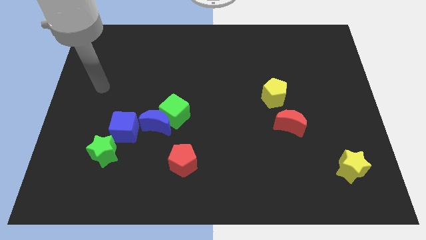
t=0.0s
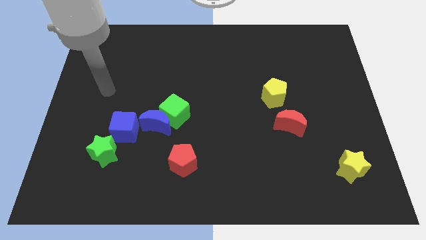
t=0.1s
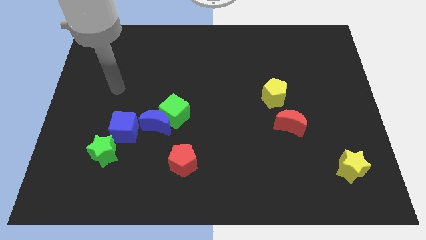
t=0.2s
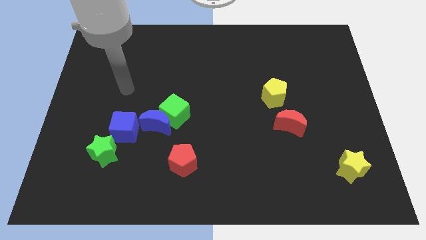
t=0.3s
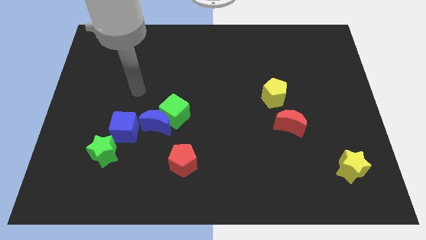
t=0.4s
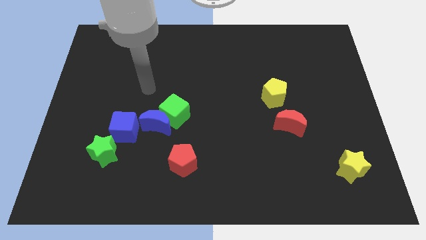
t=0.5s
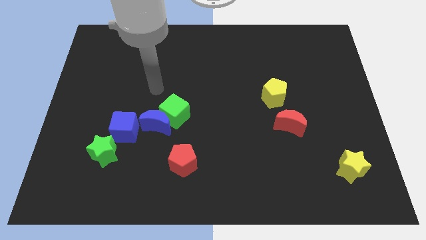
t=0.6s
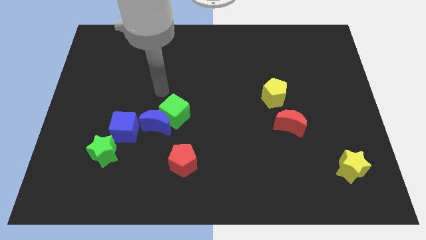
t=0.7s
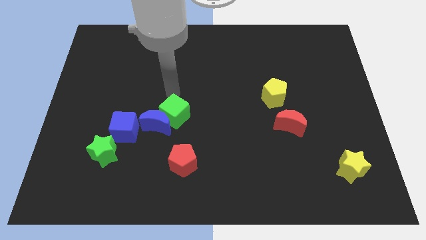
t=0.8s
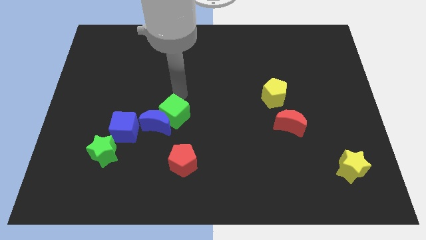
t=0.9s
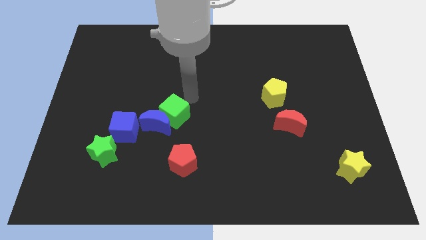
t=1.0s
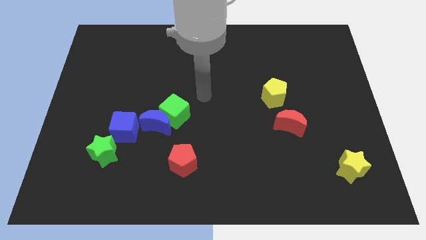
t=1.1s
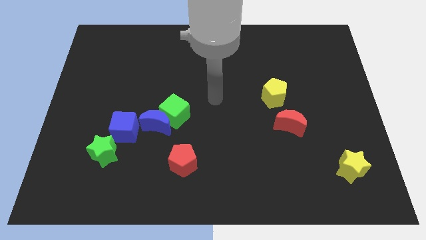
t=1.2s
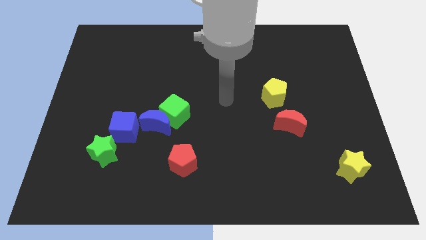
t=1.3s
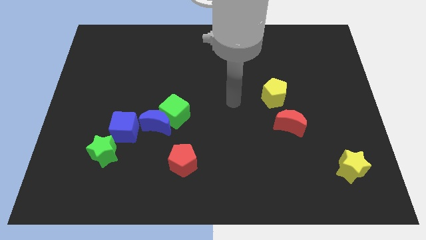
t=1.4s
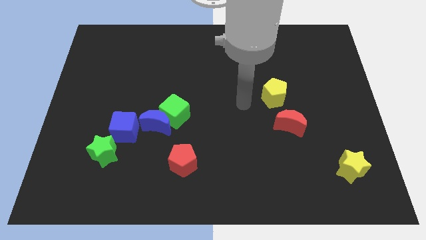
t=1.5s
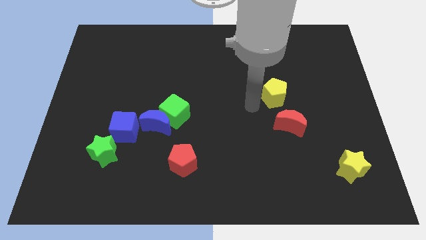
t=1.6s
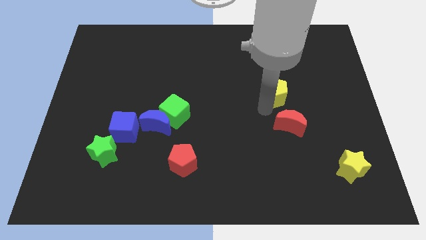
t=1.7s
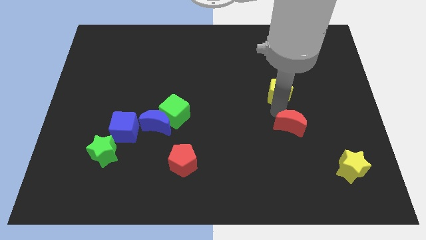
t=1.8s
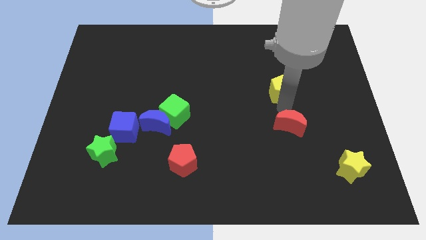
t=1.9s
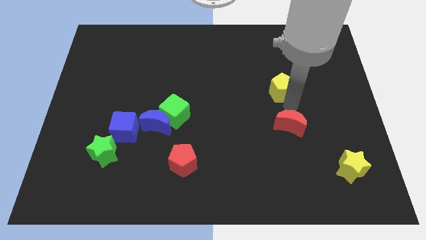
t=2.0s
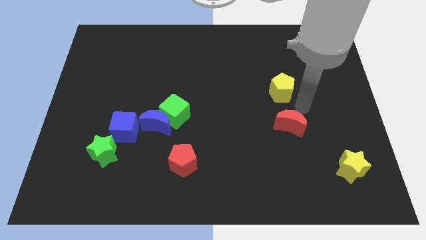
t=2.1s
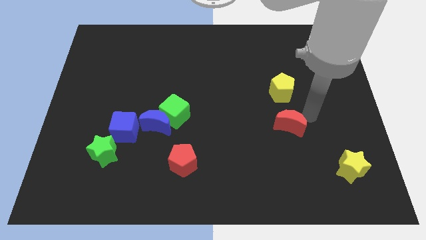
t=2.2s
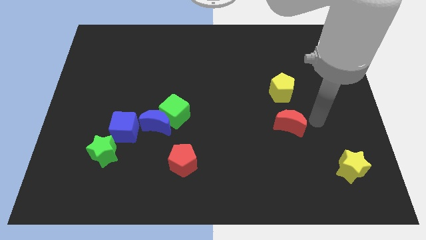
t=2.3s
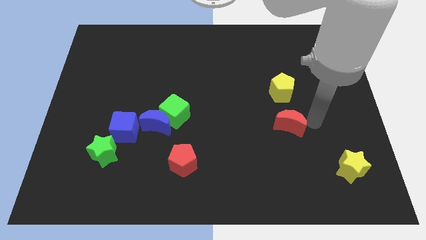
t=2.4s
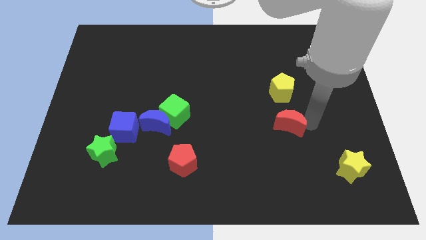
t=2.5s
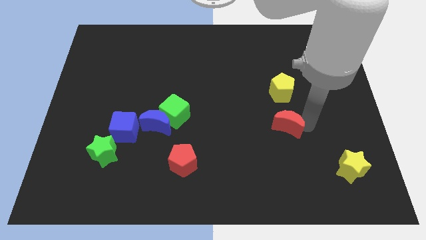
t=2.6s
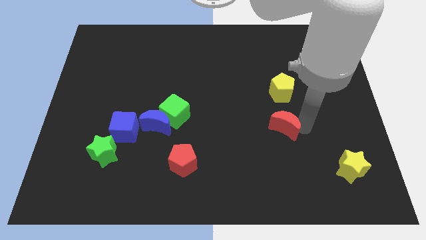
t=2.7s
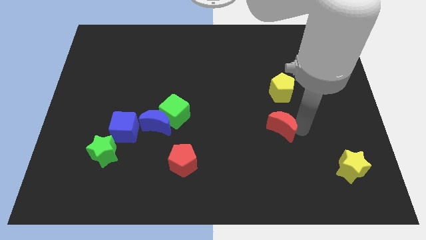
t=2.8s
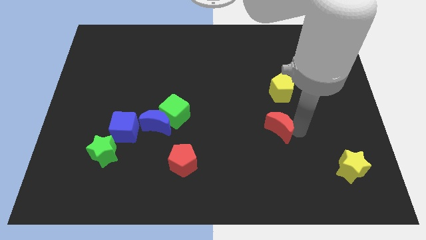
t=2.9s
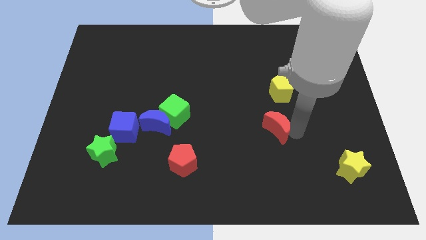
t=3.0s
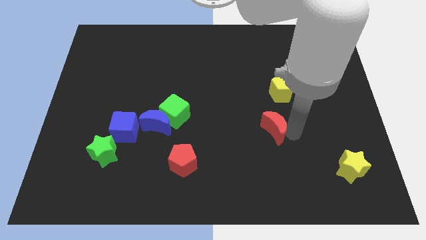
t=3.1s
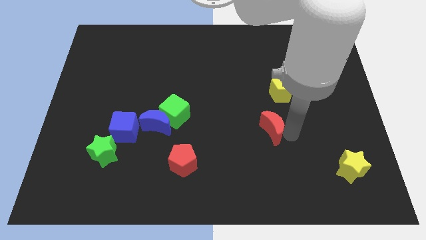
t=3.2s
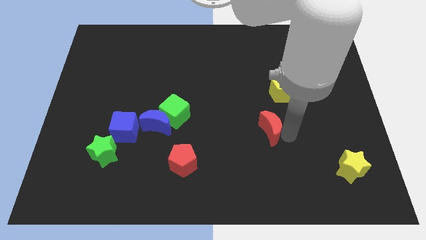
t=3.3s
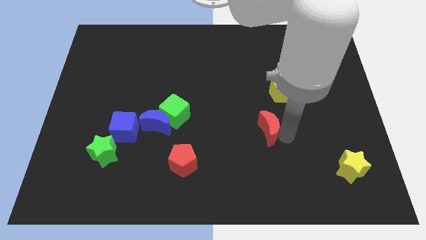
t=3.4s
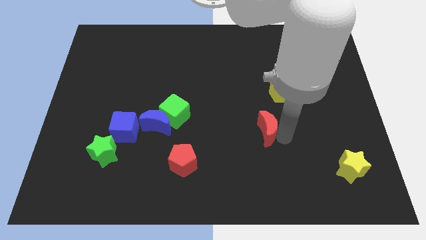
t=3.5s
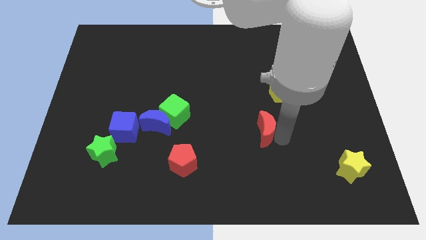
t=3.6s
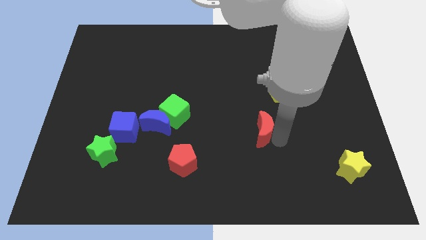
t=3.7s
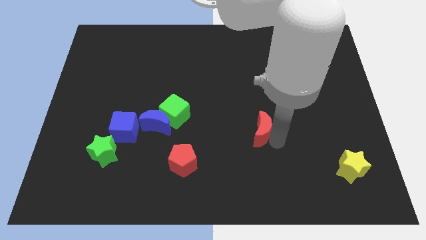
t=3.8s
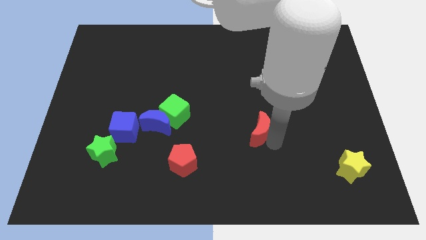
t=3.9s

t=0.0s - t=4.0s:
push the red moon a little left

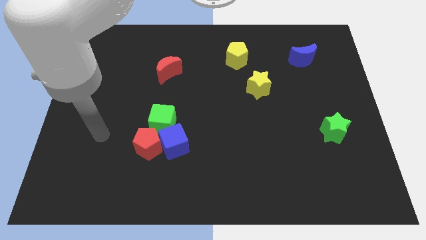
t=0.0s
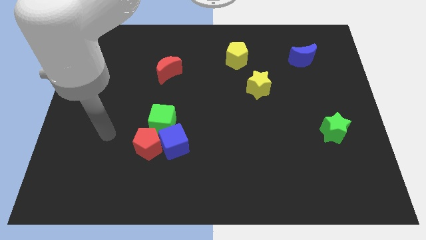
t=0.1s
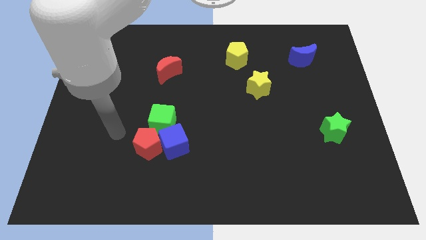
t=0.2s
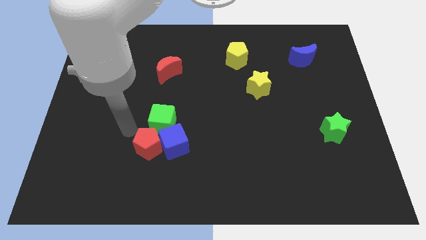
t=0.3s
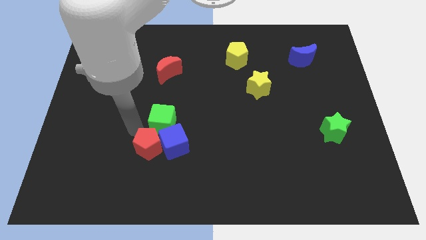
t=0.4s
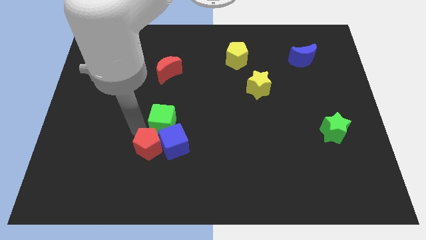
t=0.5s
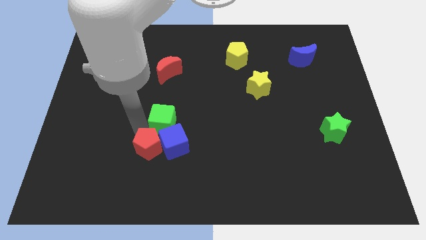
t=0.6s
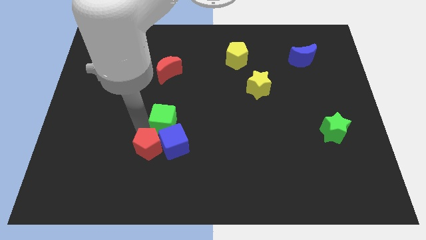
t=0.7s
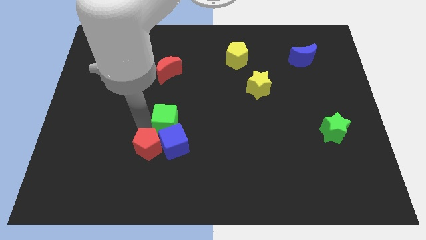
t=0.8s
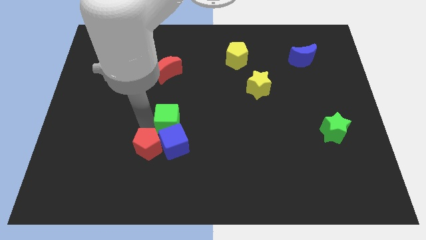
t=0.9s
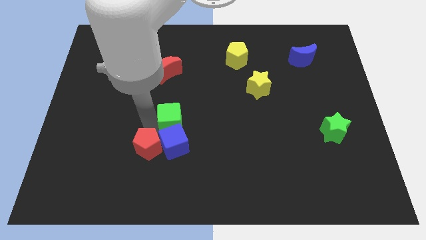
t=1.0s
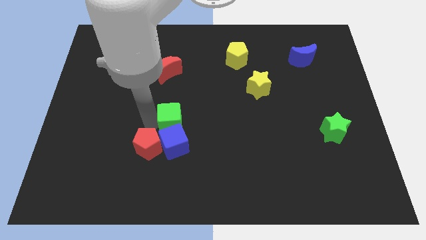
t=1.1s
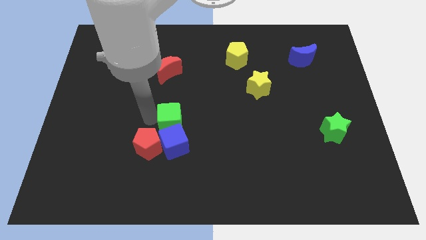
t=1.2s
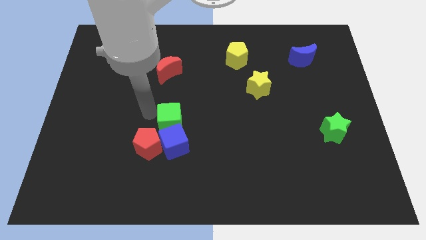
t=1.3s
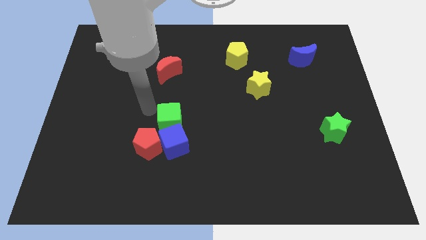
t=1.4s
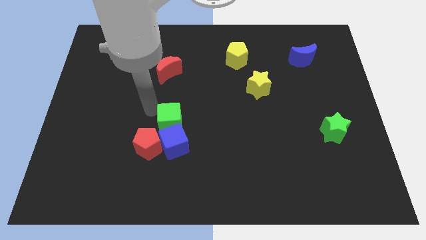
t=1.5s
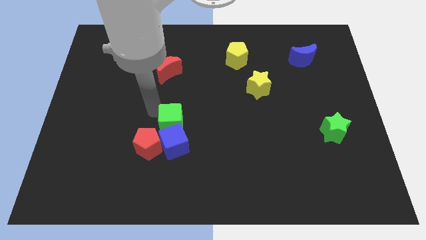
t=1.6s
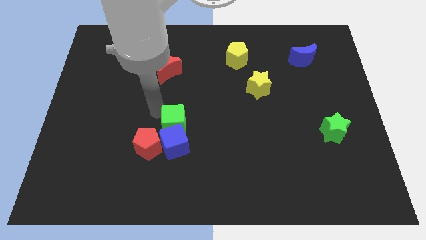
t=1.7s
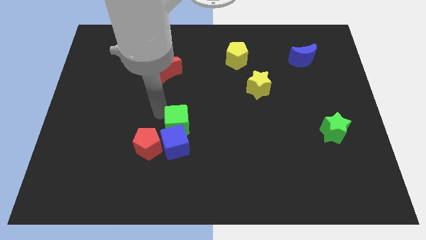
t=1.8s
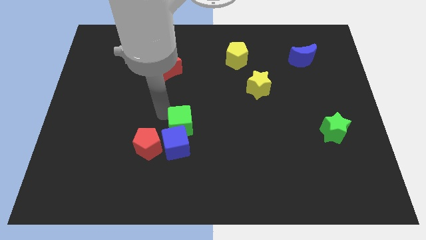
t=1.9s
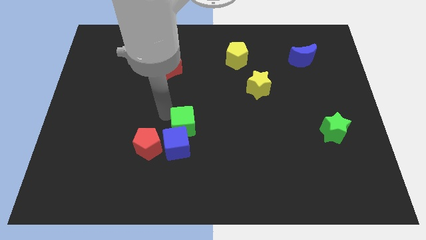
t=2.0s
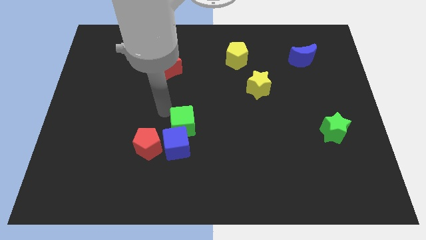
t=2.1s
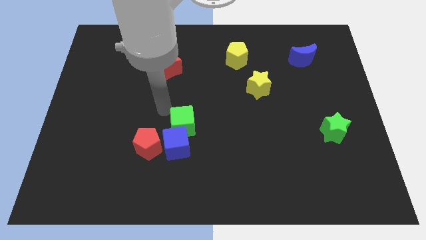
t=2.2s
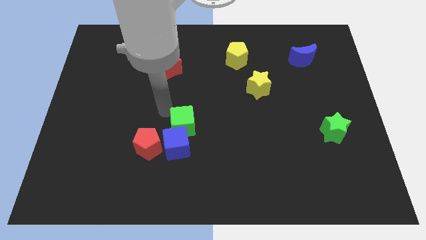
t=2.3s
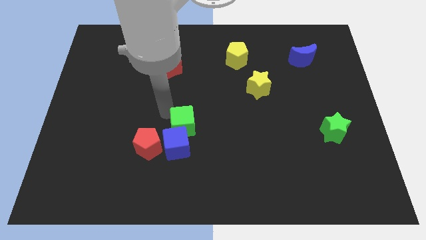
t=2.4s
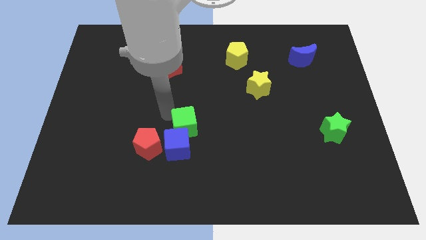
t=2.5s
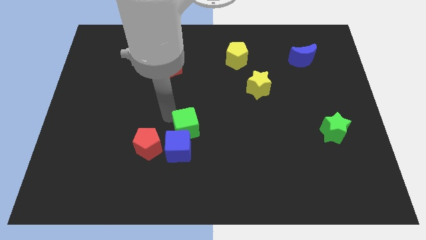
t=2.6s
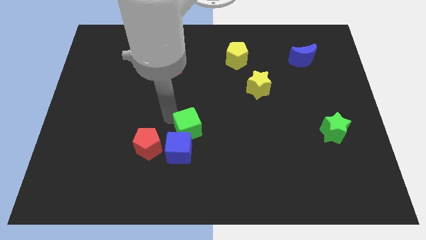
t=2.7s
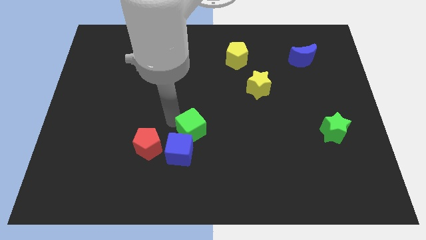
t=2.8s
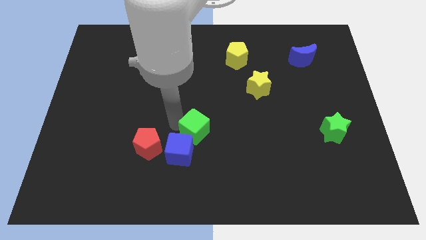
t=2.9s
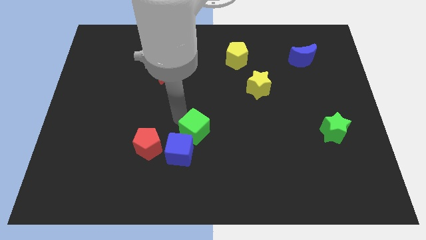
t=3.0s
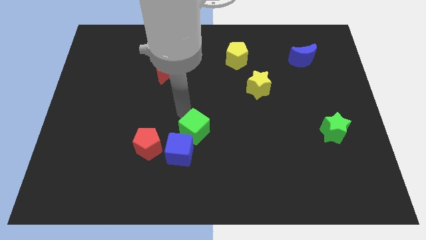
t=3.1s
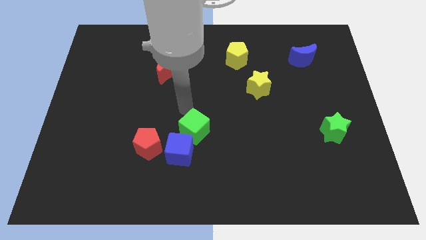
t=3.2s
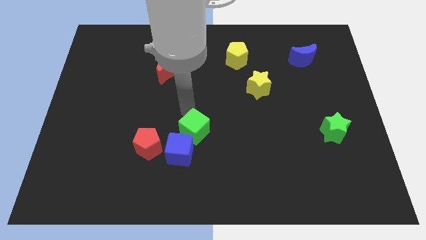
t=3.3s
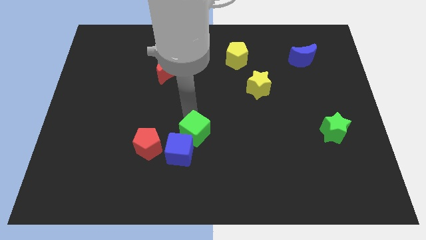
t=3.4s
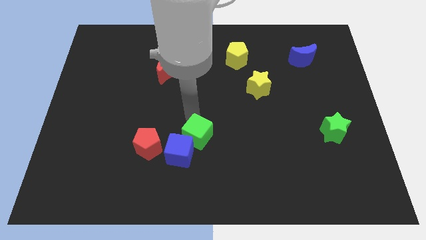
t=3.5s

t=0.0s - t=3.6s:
move the green cube down and then right slightly

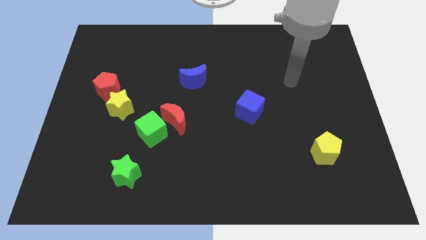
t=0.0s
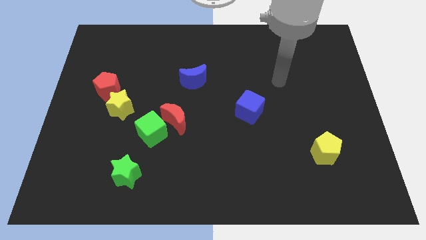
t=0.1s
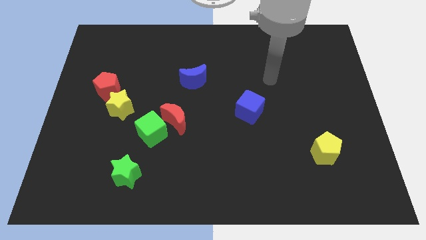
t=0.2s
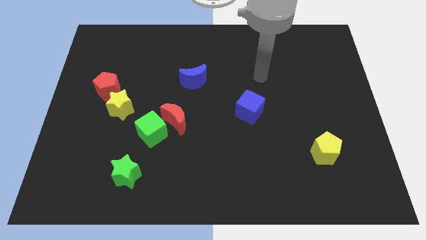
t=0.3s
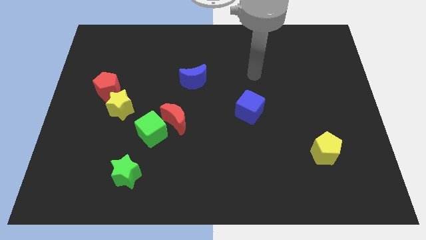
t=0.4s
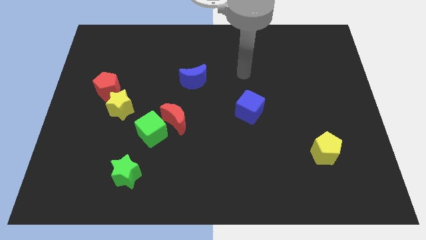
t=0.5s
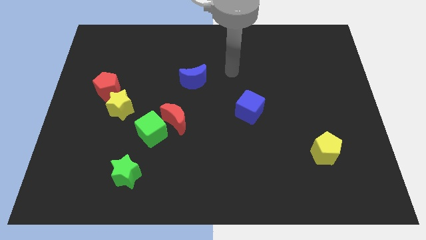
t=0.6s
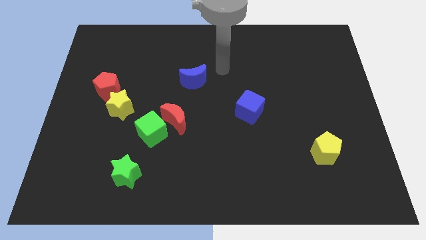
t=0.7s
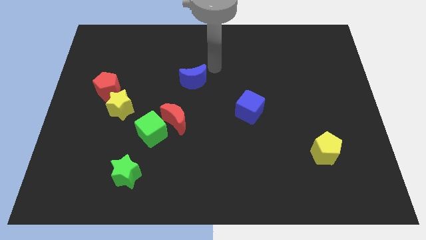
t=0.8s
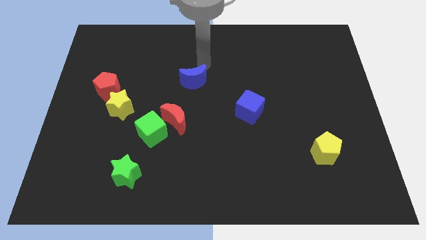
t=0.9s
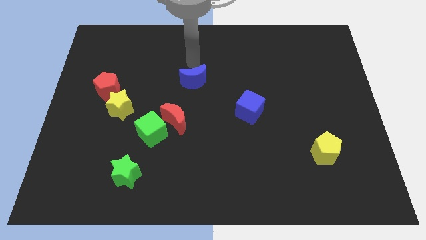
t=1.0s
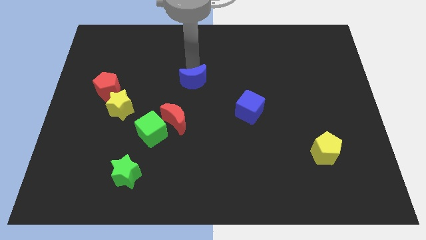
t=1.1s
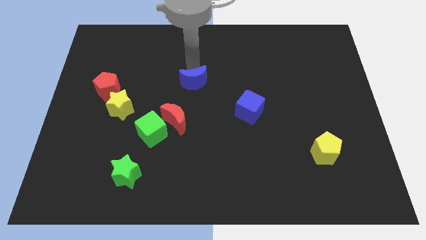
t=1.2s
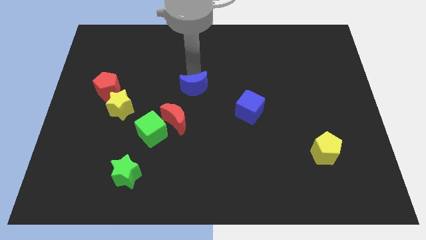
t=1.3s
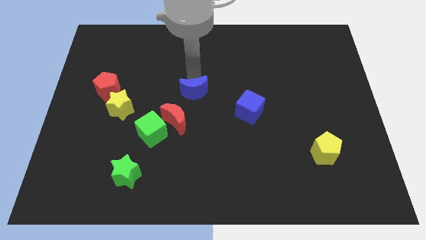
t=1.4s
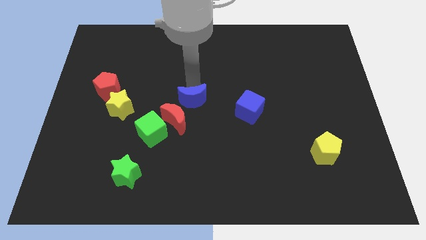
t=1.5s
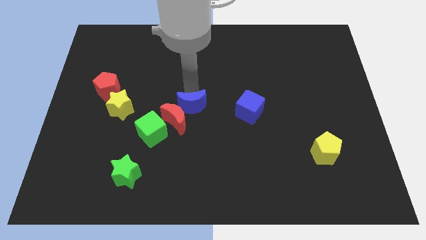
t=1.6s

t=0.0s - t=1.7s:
slide the blue moon a bit downwards
